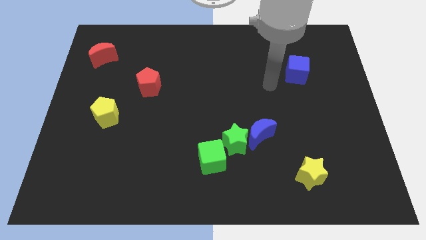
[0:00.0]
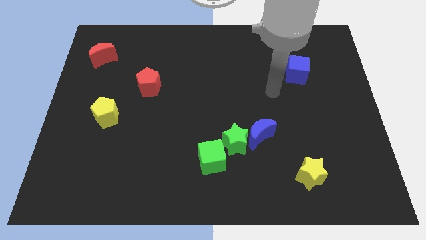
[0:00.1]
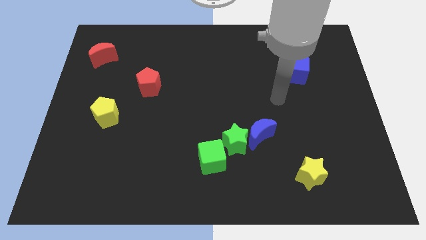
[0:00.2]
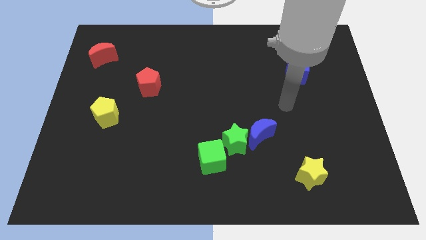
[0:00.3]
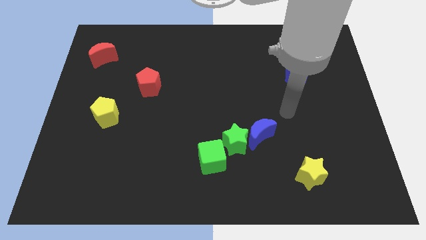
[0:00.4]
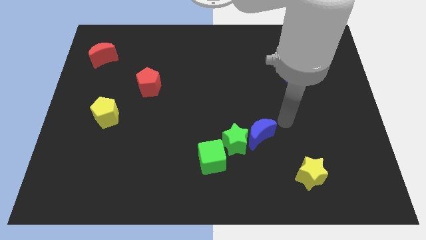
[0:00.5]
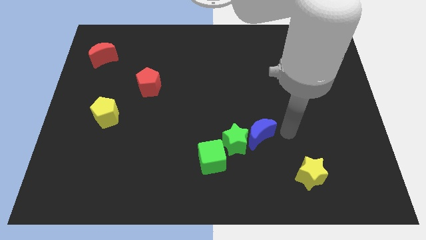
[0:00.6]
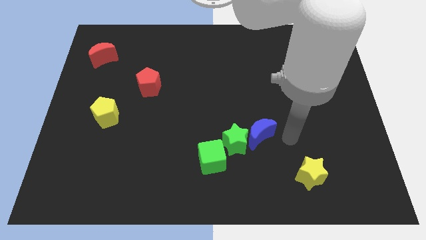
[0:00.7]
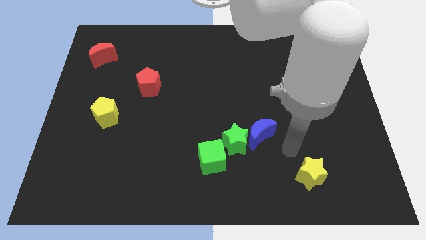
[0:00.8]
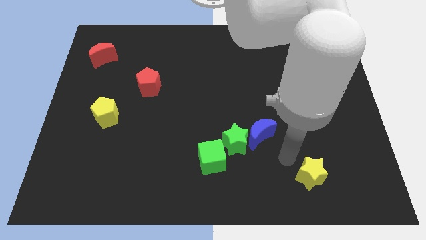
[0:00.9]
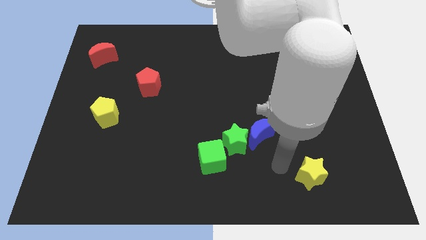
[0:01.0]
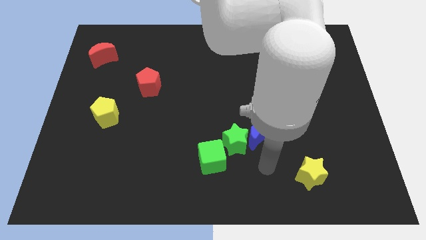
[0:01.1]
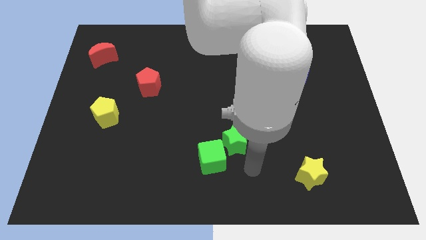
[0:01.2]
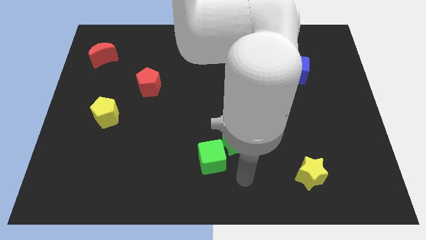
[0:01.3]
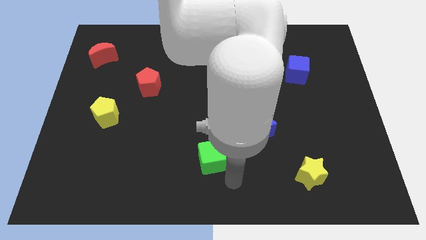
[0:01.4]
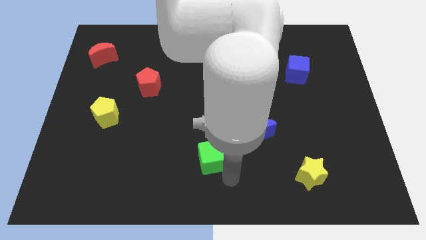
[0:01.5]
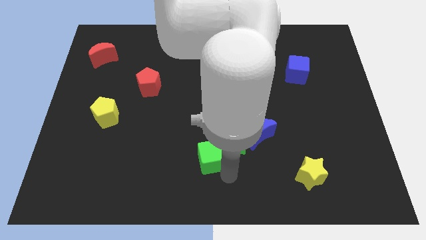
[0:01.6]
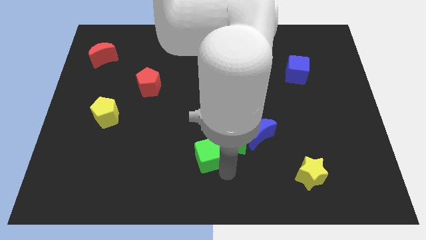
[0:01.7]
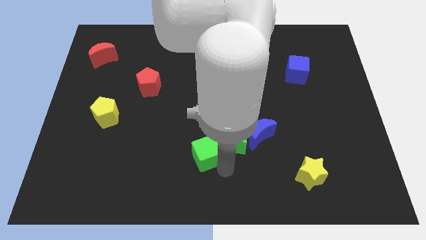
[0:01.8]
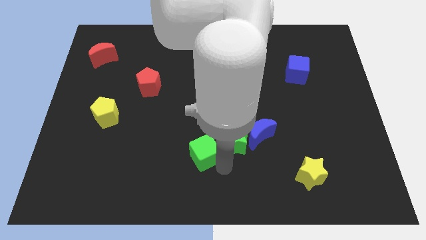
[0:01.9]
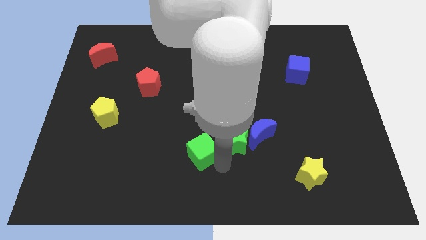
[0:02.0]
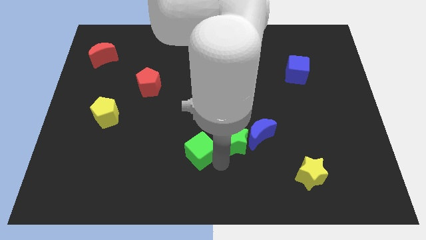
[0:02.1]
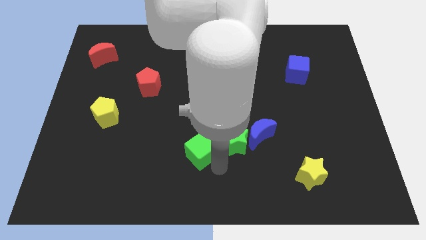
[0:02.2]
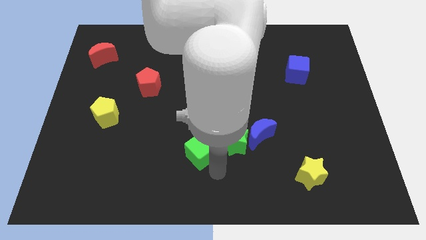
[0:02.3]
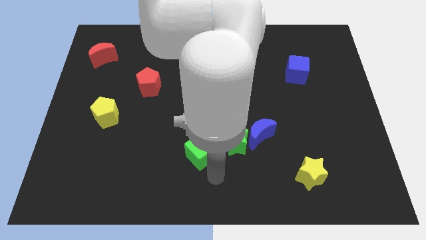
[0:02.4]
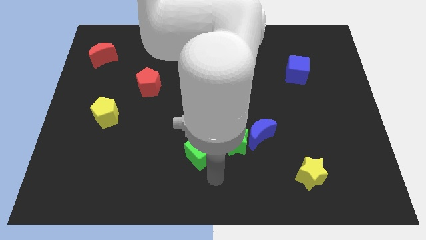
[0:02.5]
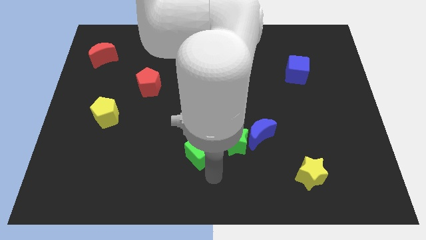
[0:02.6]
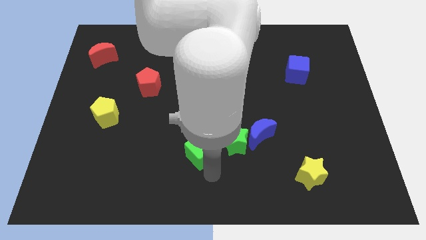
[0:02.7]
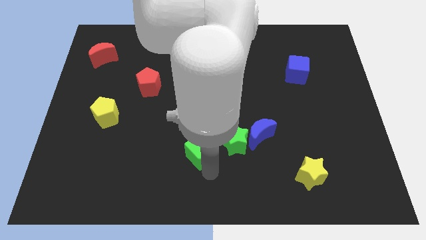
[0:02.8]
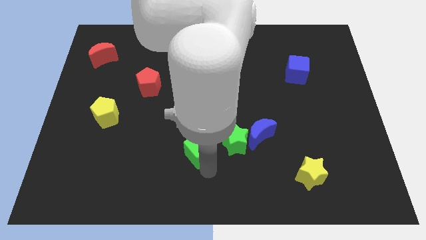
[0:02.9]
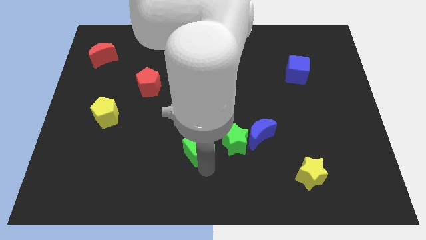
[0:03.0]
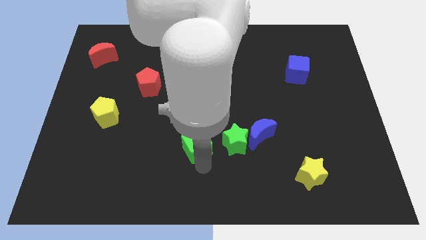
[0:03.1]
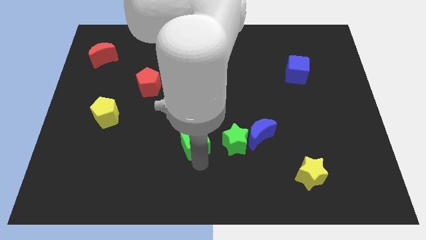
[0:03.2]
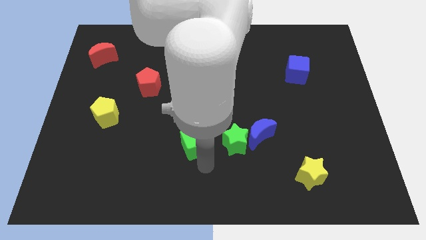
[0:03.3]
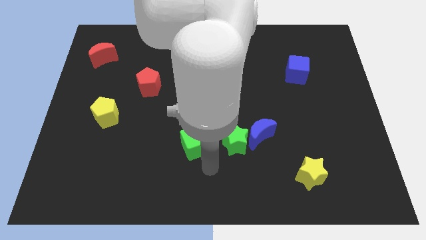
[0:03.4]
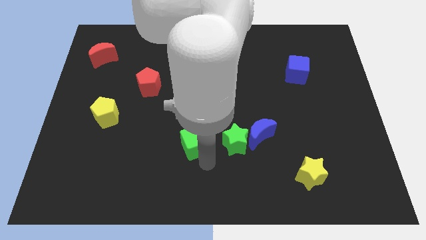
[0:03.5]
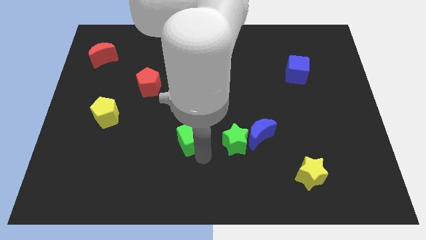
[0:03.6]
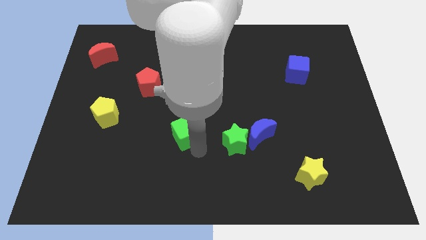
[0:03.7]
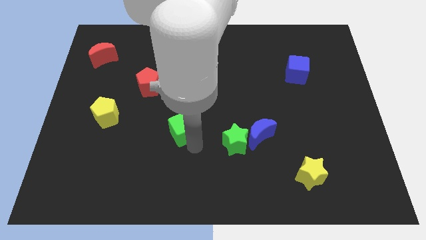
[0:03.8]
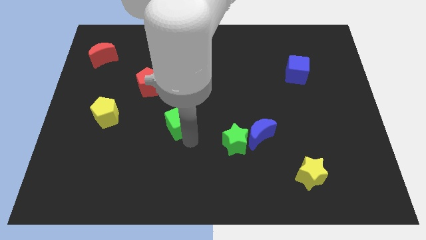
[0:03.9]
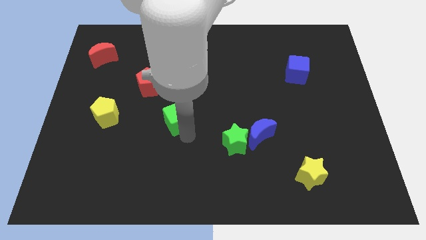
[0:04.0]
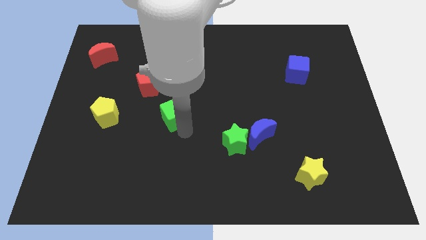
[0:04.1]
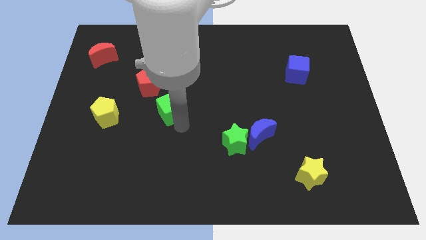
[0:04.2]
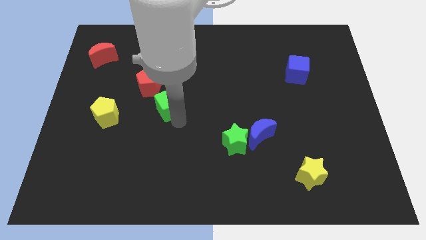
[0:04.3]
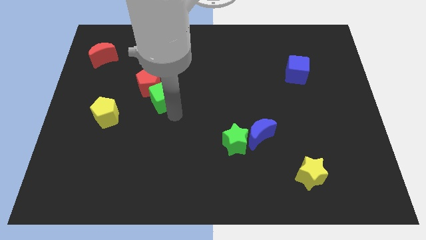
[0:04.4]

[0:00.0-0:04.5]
put the green cube towards the red pentagon

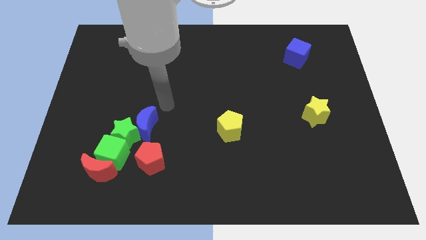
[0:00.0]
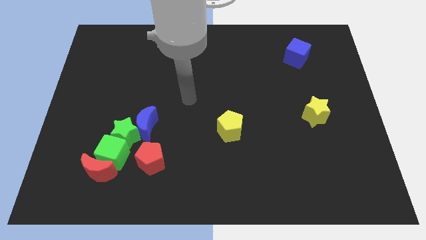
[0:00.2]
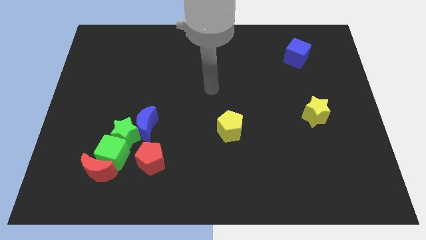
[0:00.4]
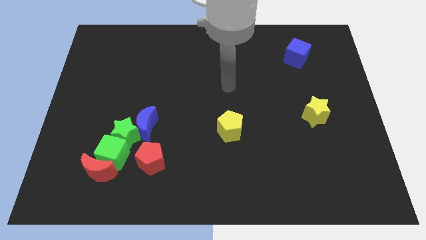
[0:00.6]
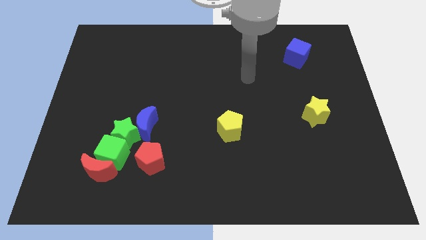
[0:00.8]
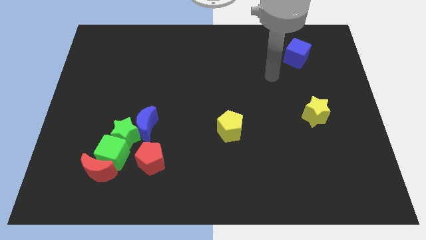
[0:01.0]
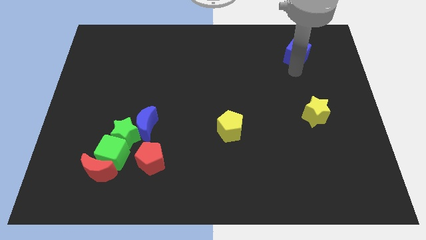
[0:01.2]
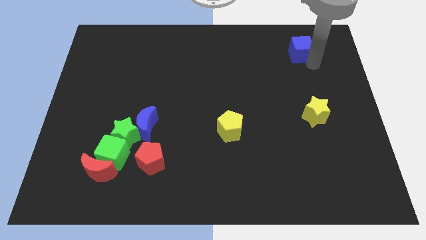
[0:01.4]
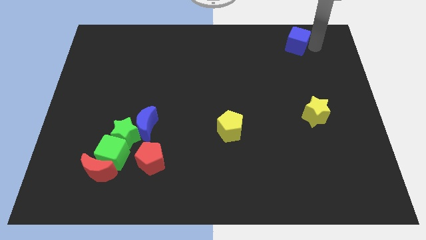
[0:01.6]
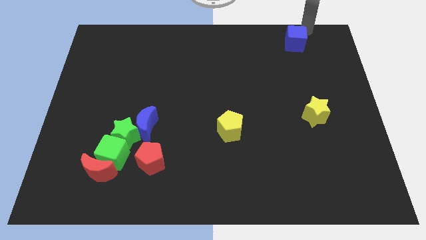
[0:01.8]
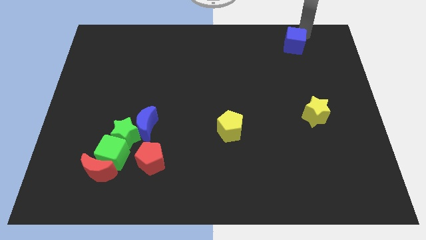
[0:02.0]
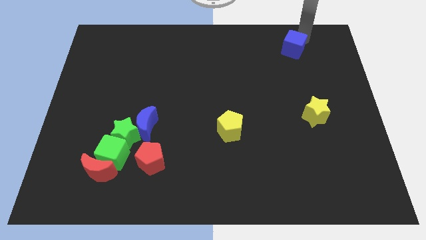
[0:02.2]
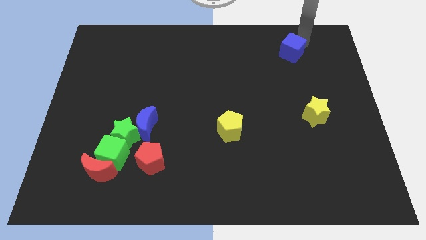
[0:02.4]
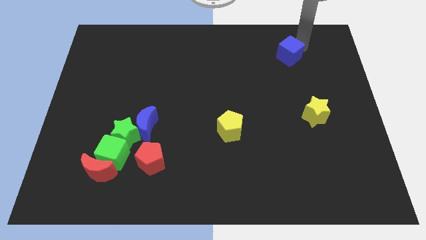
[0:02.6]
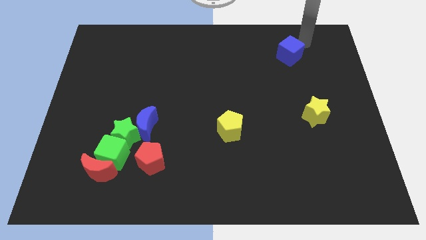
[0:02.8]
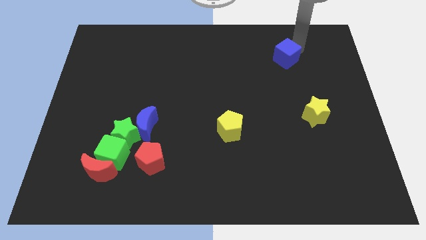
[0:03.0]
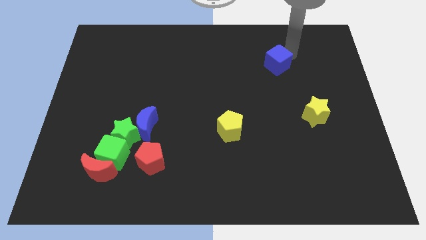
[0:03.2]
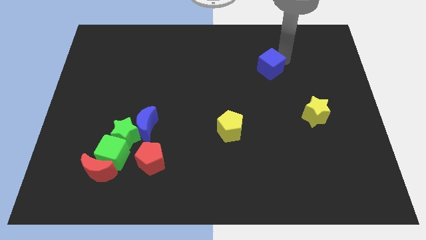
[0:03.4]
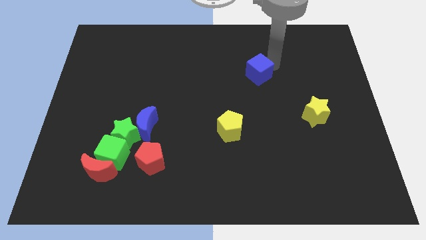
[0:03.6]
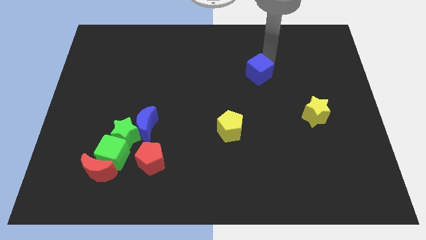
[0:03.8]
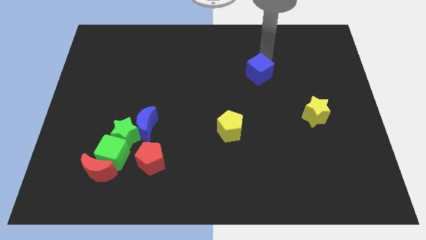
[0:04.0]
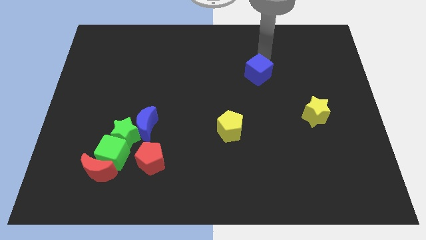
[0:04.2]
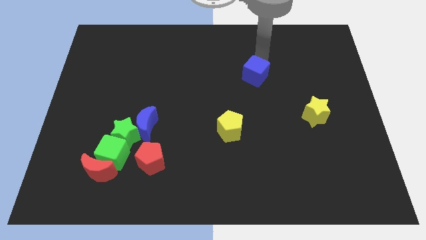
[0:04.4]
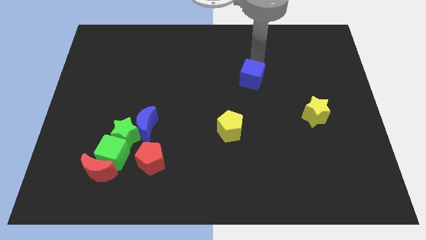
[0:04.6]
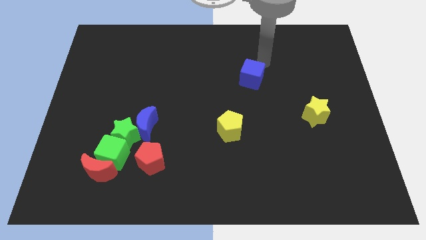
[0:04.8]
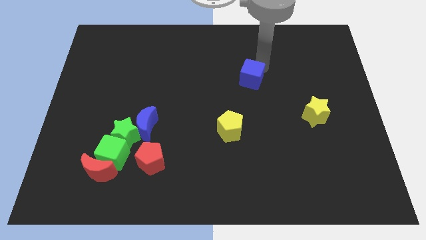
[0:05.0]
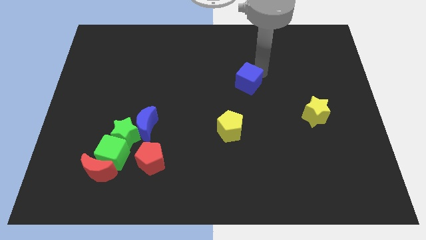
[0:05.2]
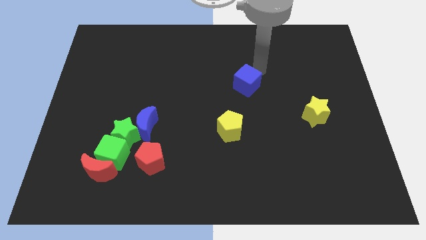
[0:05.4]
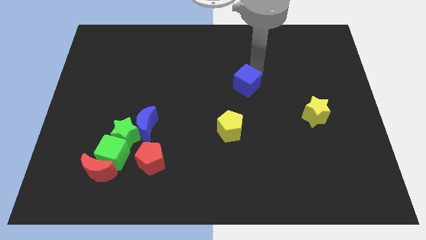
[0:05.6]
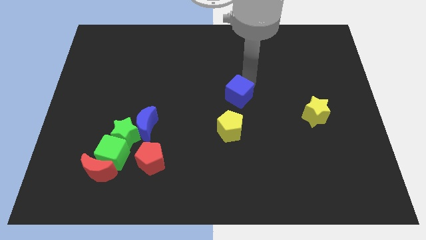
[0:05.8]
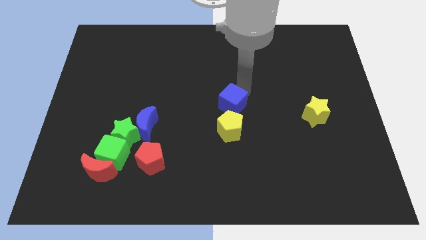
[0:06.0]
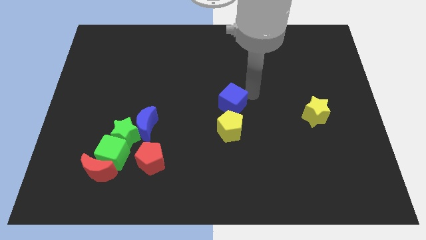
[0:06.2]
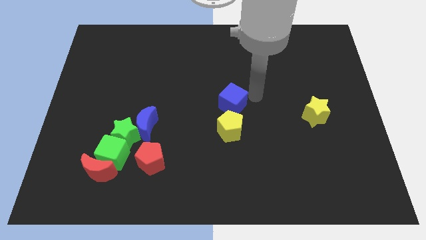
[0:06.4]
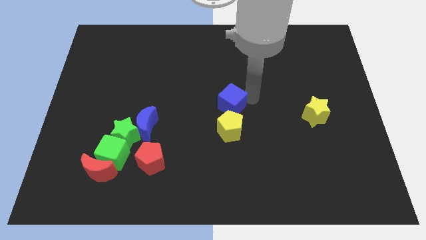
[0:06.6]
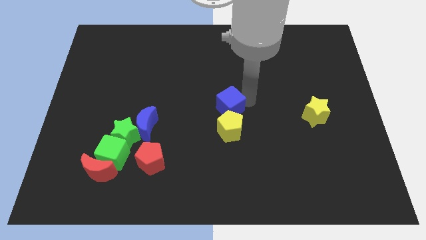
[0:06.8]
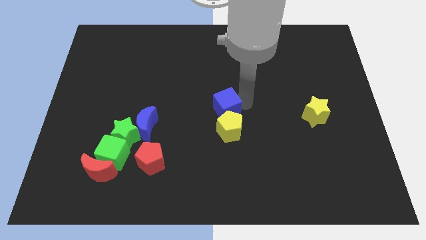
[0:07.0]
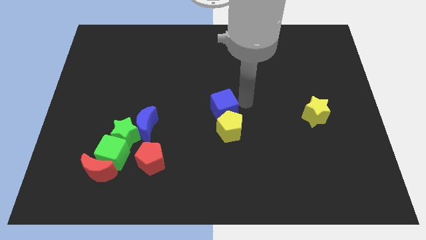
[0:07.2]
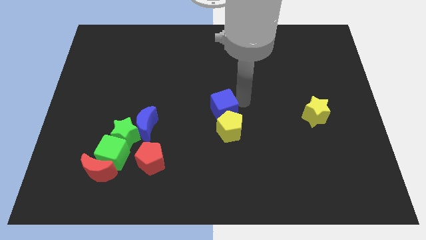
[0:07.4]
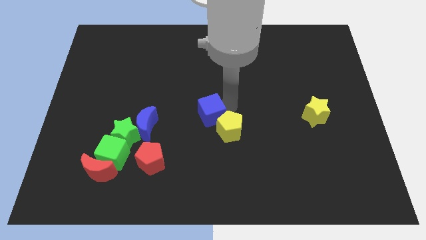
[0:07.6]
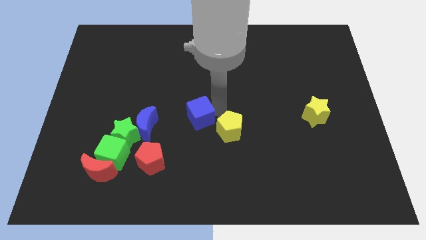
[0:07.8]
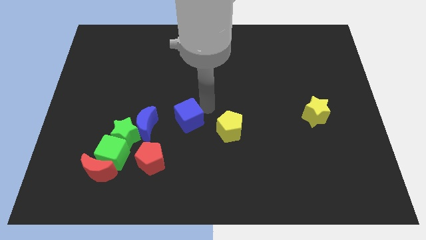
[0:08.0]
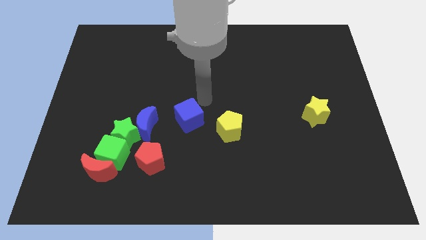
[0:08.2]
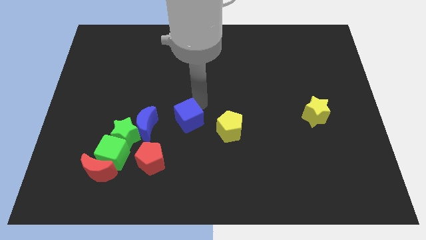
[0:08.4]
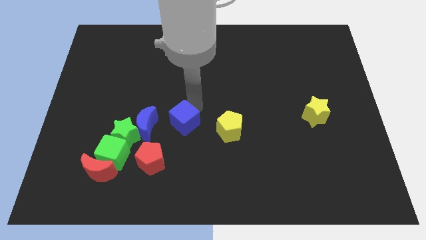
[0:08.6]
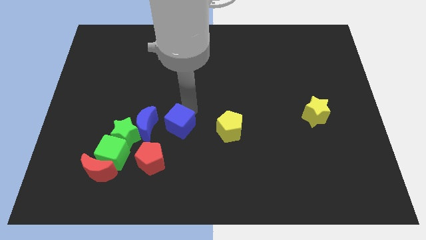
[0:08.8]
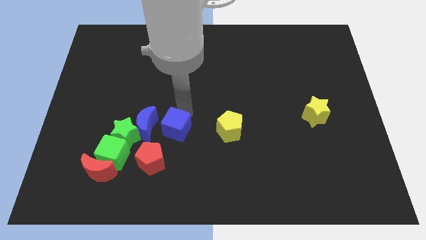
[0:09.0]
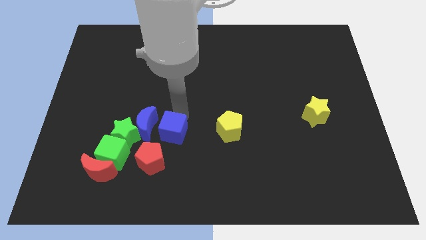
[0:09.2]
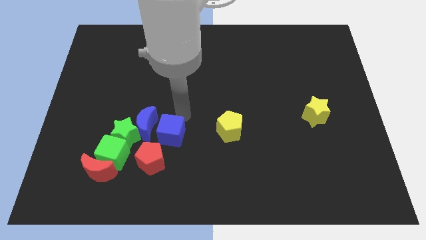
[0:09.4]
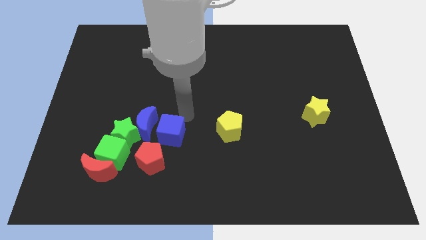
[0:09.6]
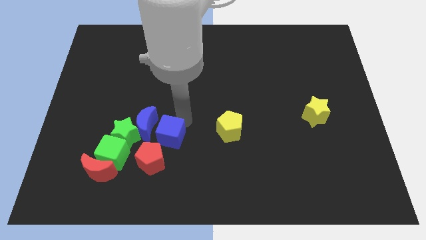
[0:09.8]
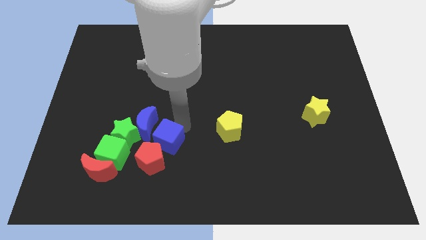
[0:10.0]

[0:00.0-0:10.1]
move the blue cube towards the red pentagon
